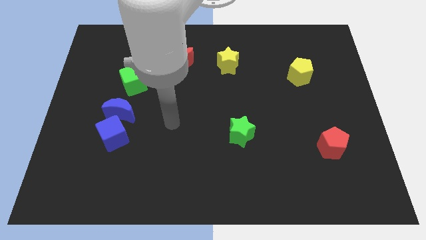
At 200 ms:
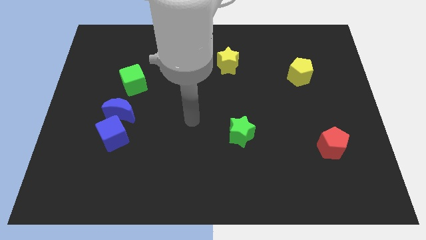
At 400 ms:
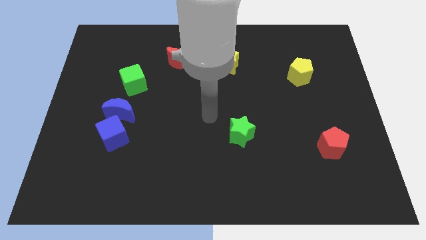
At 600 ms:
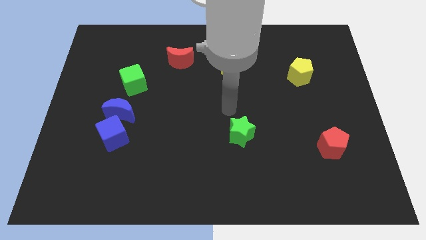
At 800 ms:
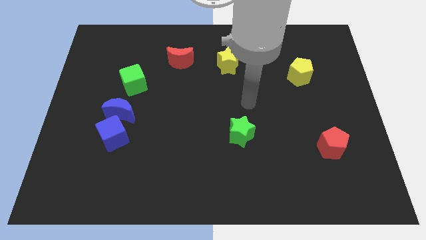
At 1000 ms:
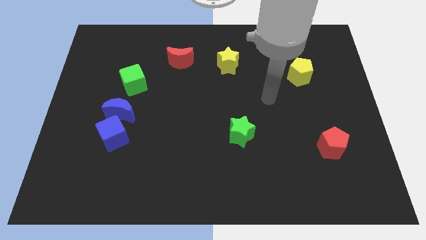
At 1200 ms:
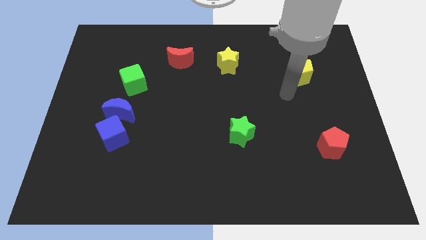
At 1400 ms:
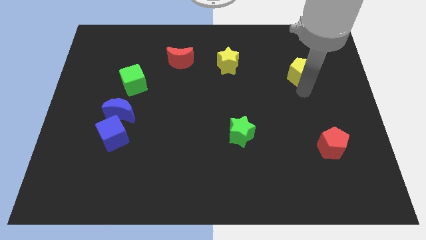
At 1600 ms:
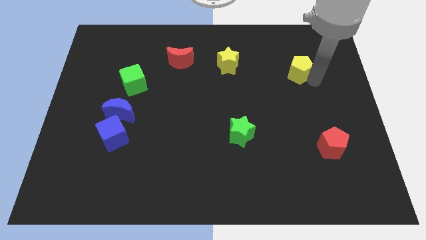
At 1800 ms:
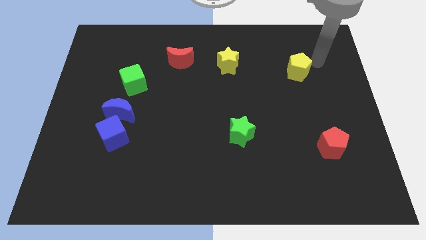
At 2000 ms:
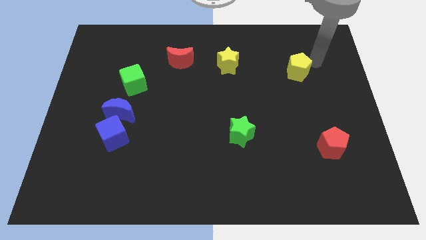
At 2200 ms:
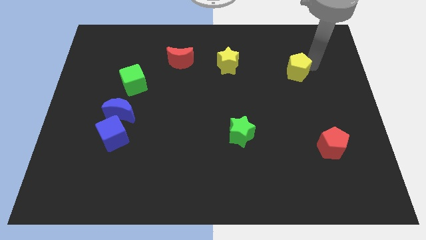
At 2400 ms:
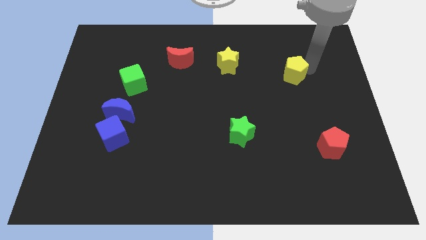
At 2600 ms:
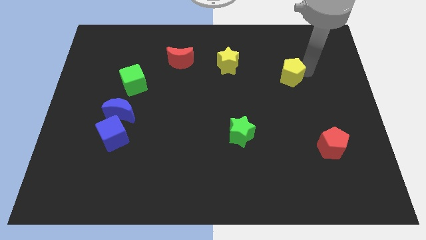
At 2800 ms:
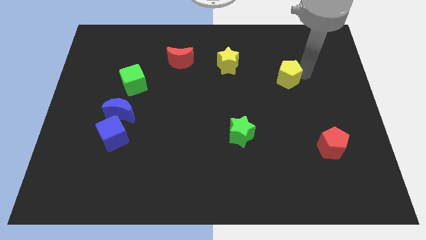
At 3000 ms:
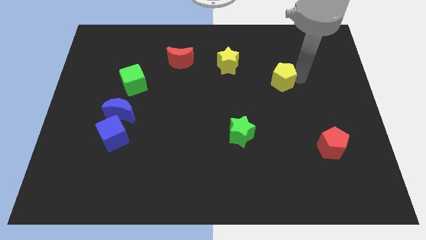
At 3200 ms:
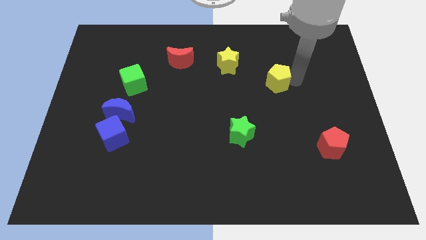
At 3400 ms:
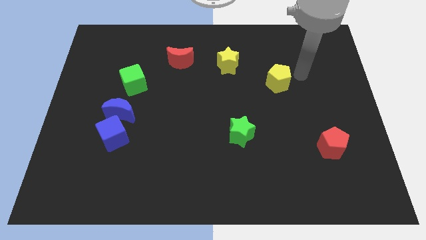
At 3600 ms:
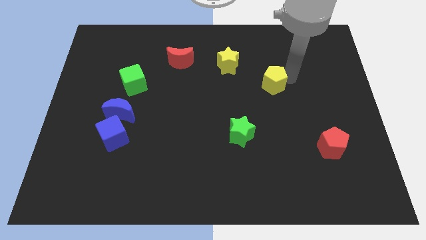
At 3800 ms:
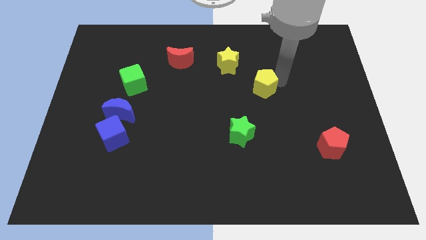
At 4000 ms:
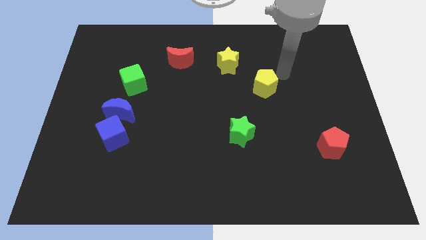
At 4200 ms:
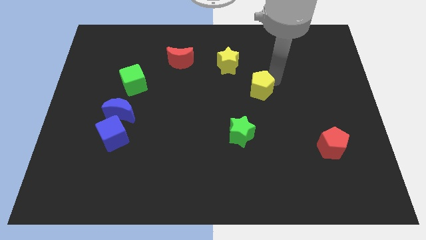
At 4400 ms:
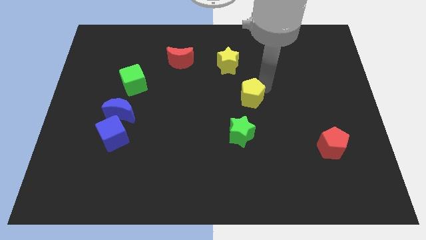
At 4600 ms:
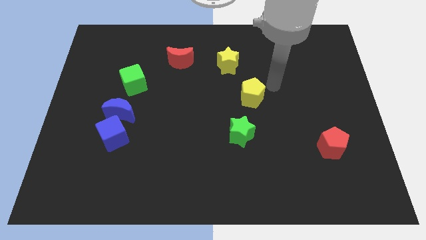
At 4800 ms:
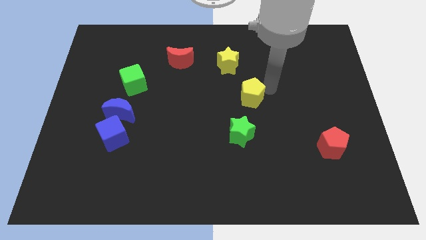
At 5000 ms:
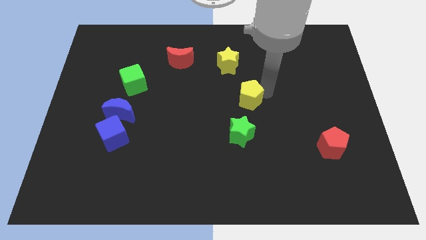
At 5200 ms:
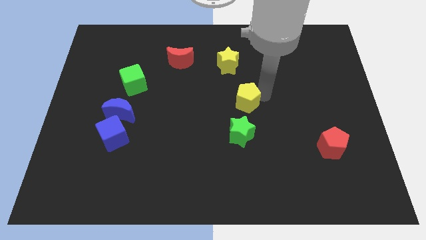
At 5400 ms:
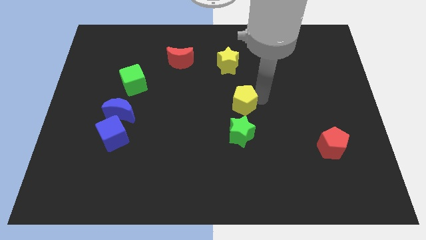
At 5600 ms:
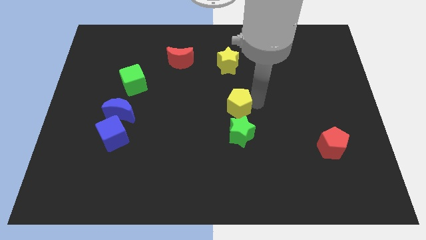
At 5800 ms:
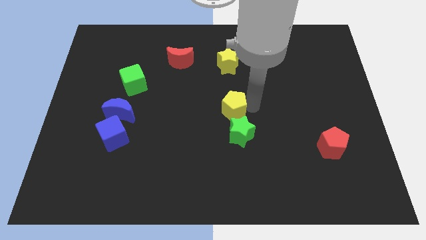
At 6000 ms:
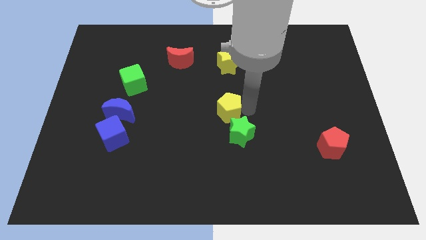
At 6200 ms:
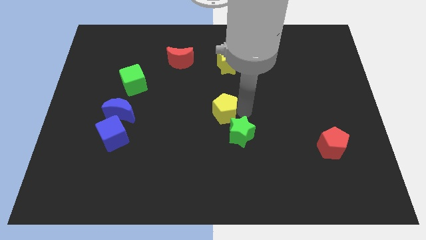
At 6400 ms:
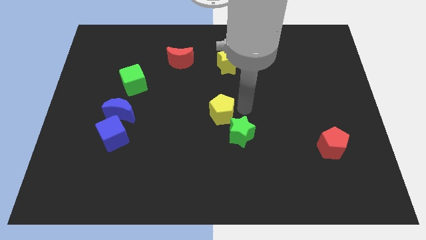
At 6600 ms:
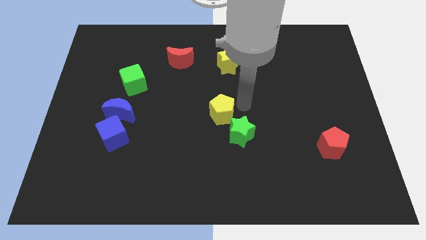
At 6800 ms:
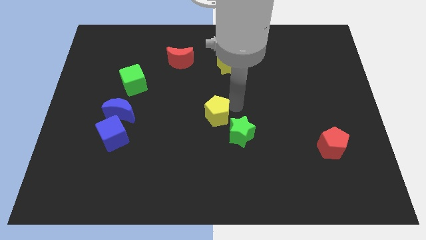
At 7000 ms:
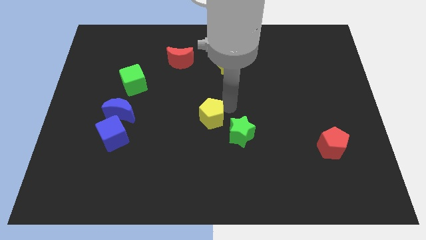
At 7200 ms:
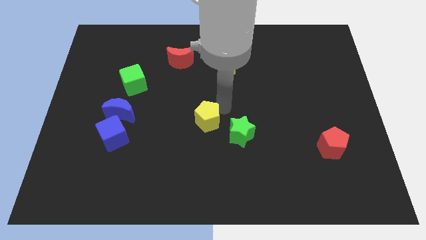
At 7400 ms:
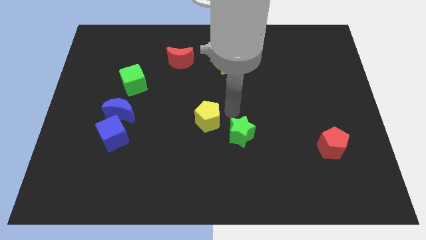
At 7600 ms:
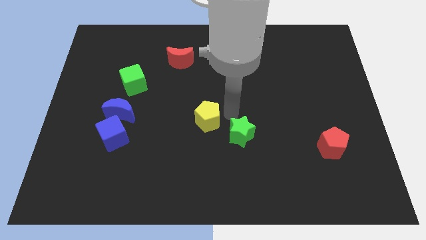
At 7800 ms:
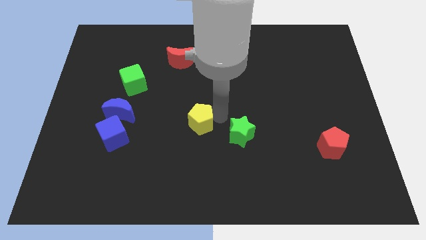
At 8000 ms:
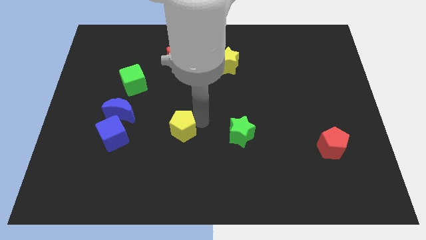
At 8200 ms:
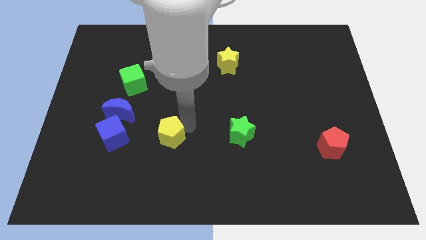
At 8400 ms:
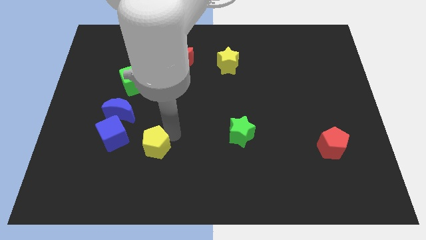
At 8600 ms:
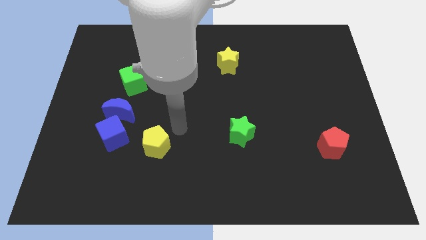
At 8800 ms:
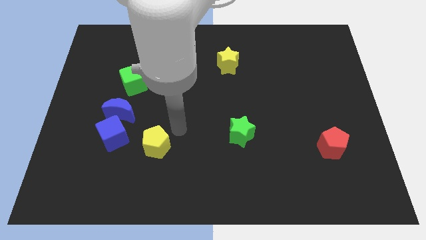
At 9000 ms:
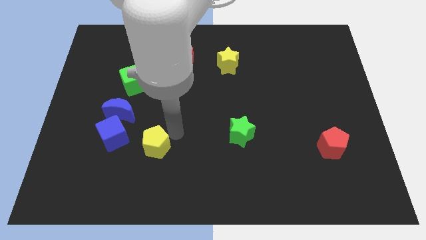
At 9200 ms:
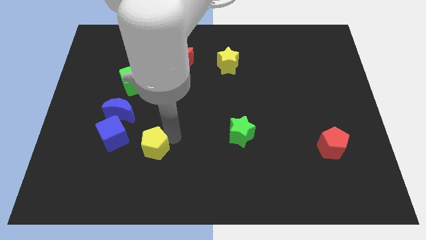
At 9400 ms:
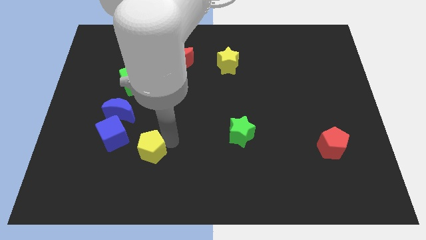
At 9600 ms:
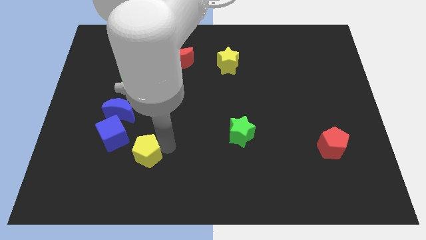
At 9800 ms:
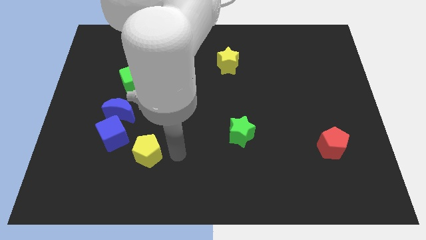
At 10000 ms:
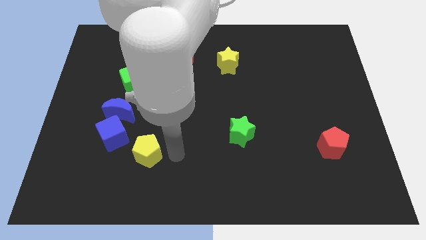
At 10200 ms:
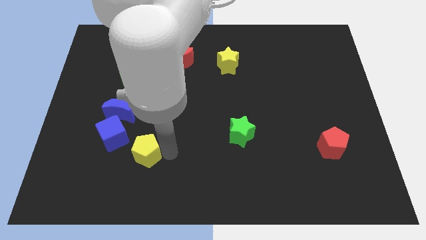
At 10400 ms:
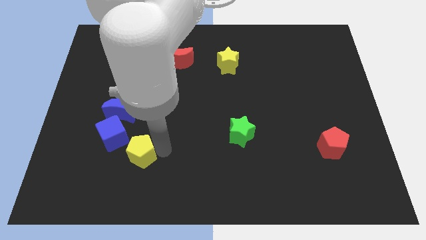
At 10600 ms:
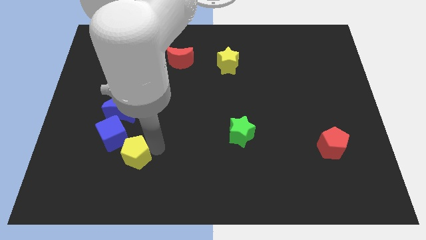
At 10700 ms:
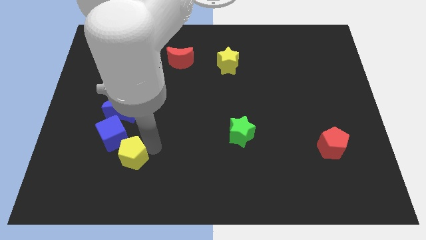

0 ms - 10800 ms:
push the yellow pentagon to the bottom of the blue moon

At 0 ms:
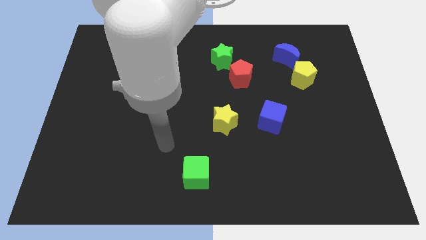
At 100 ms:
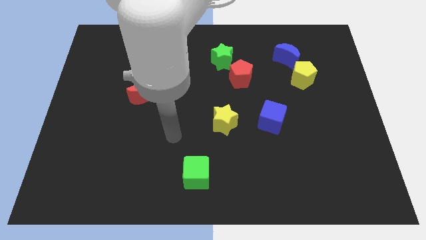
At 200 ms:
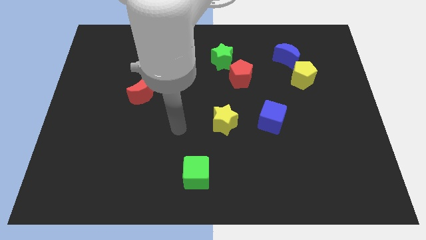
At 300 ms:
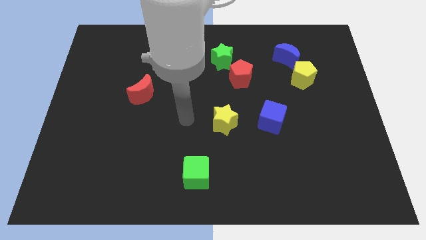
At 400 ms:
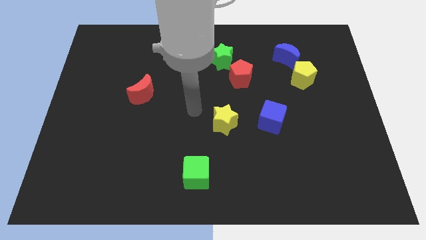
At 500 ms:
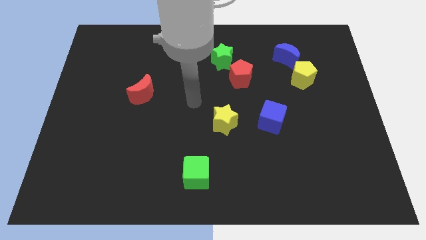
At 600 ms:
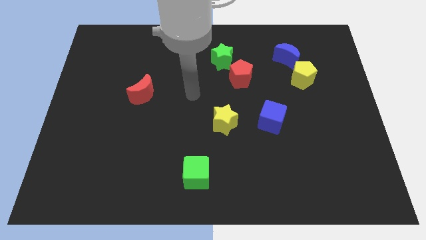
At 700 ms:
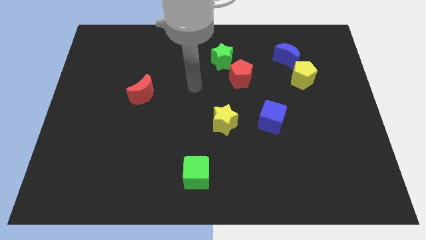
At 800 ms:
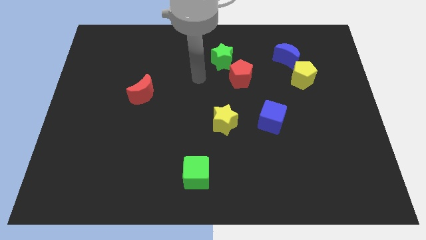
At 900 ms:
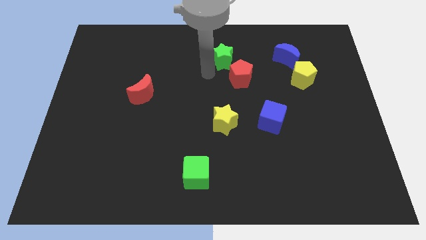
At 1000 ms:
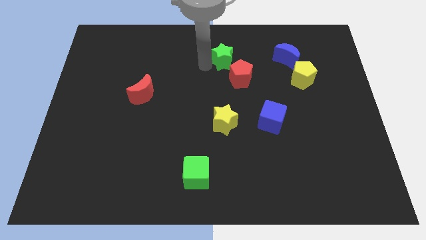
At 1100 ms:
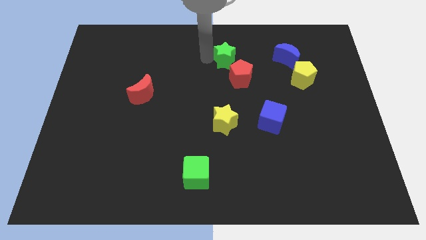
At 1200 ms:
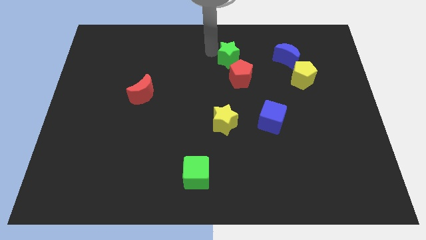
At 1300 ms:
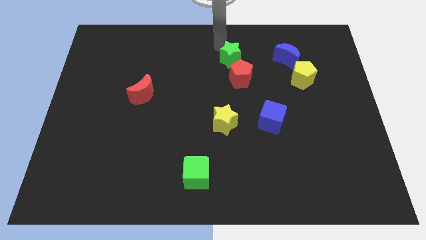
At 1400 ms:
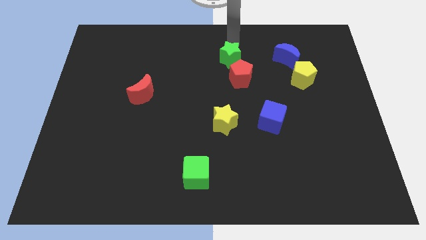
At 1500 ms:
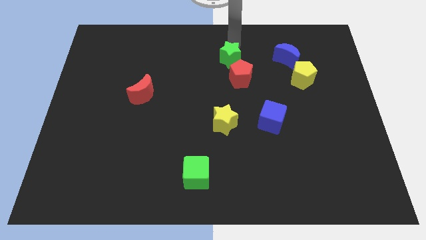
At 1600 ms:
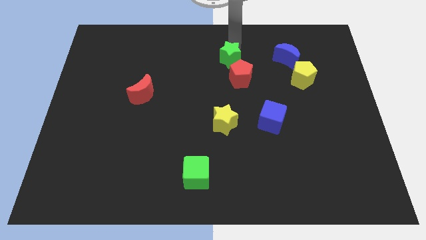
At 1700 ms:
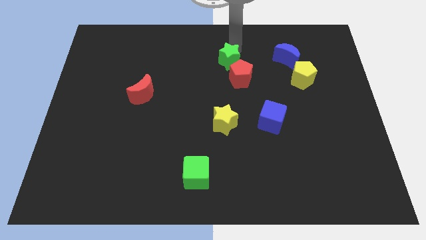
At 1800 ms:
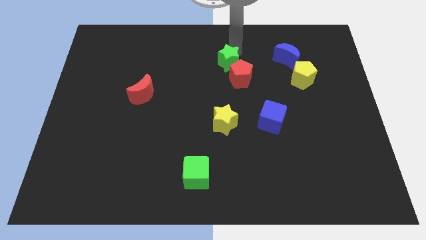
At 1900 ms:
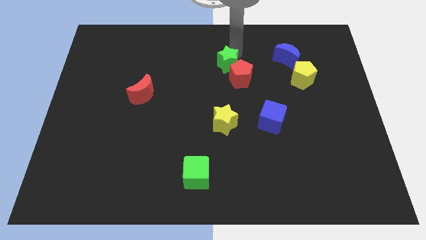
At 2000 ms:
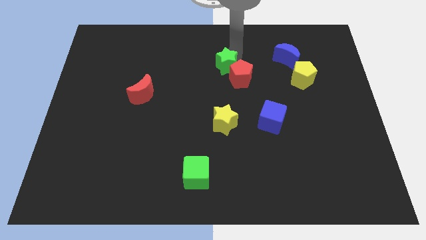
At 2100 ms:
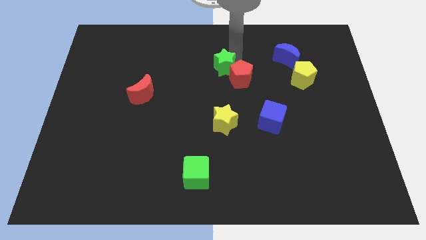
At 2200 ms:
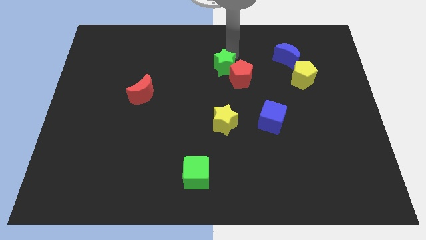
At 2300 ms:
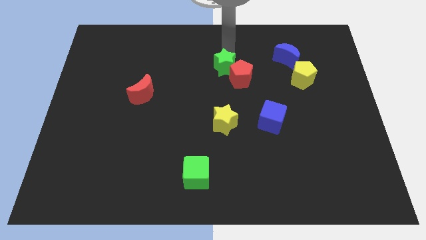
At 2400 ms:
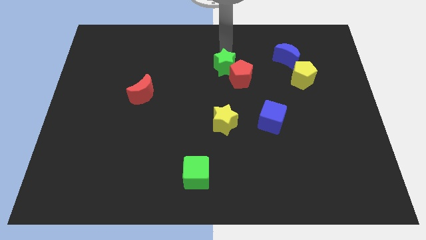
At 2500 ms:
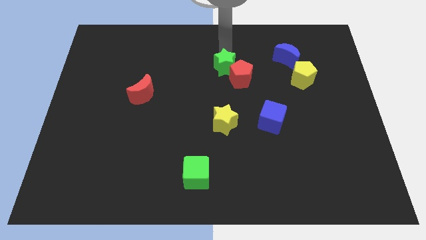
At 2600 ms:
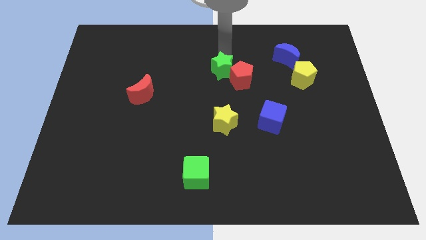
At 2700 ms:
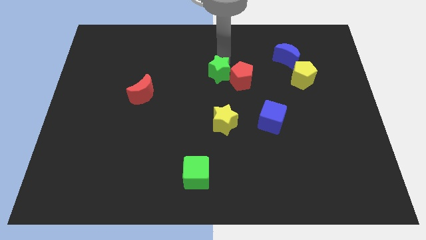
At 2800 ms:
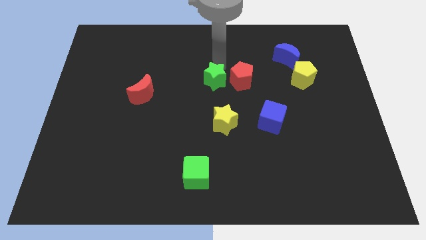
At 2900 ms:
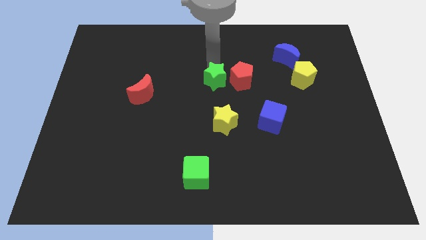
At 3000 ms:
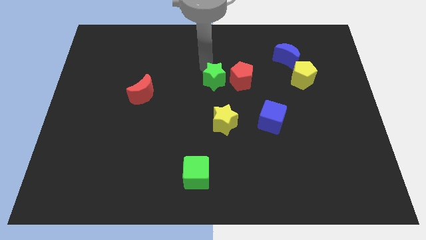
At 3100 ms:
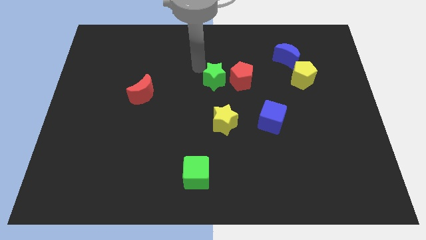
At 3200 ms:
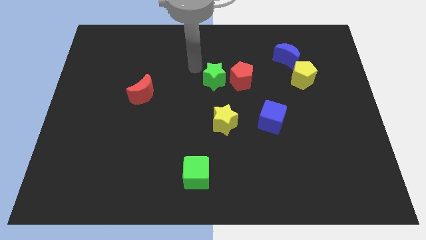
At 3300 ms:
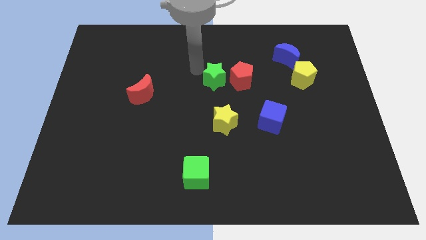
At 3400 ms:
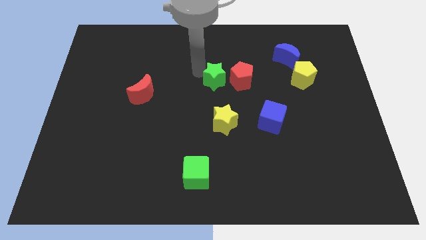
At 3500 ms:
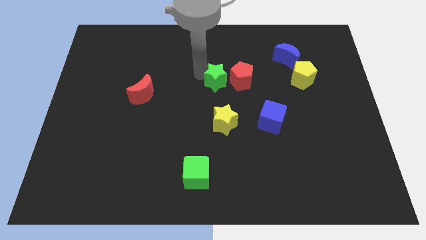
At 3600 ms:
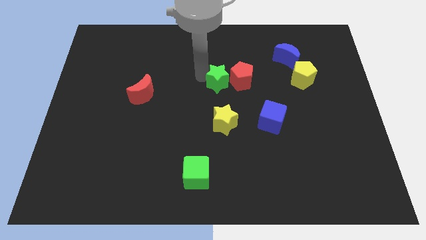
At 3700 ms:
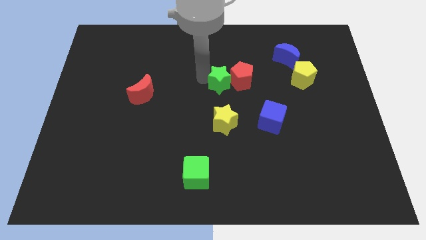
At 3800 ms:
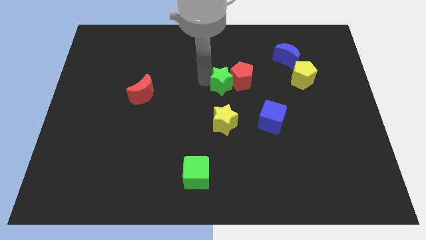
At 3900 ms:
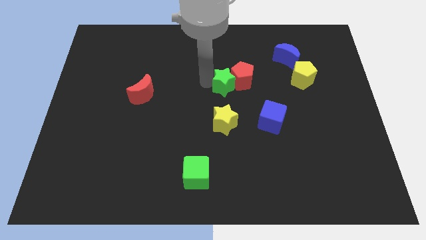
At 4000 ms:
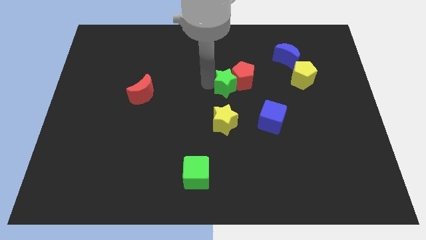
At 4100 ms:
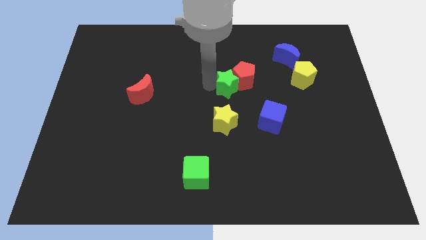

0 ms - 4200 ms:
slide the green star below the red pentagon
